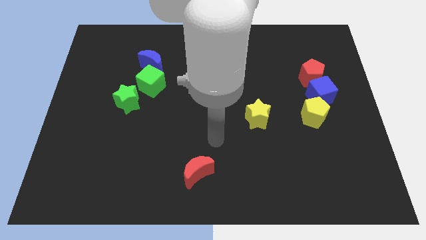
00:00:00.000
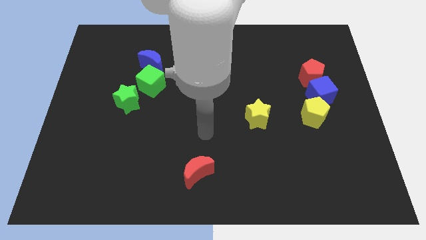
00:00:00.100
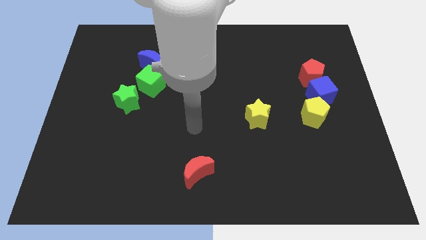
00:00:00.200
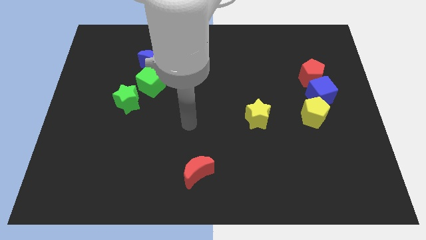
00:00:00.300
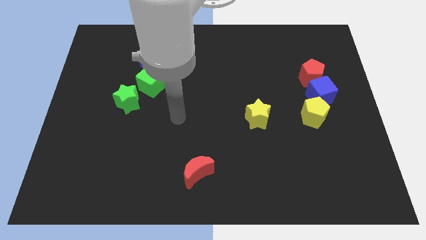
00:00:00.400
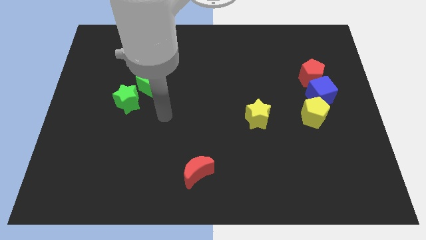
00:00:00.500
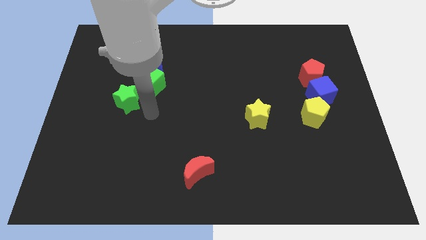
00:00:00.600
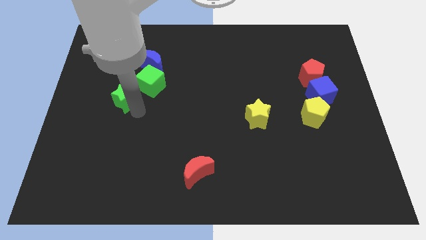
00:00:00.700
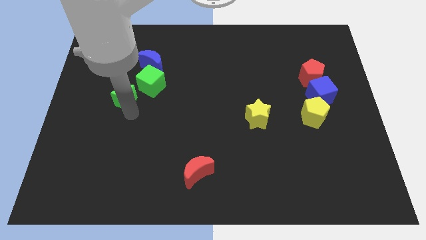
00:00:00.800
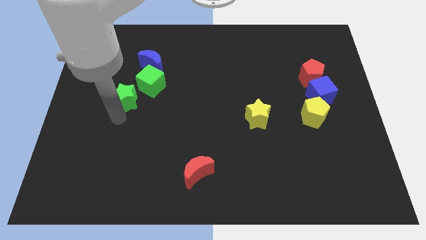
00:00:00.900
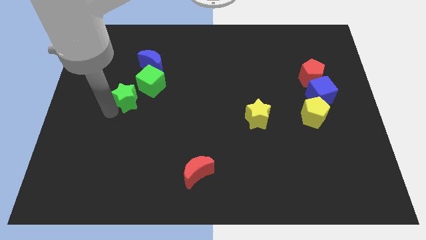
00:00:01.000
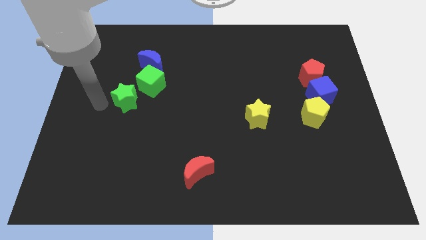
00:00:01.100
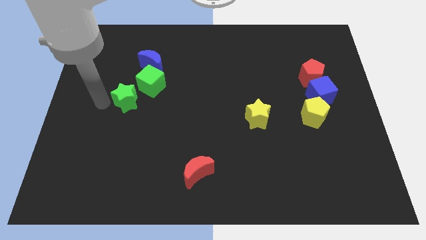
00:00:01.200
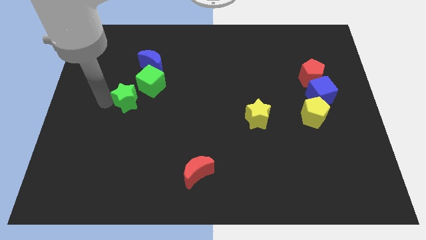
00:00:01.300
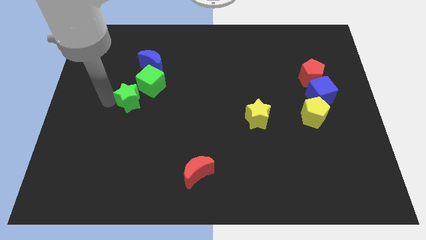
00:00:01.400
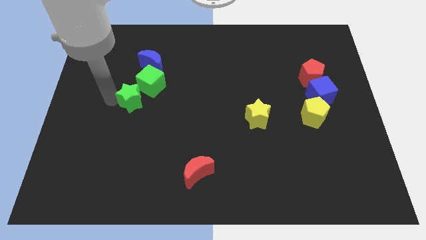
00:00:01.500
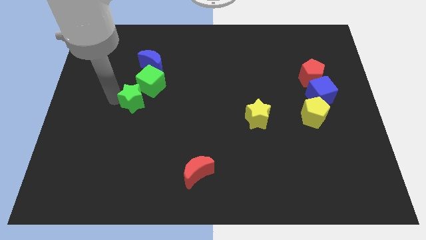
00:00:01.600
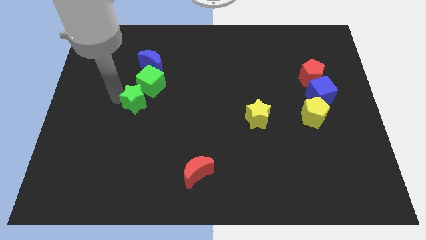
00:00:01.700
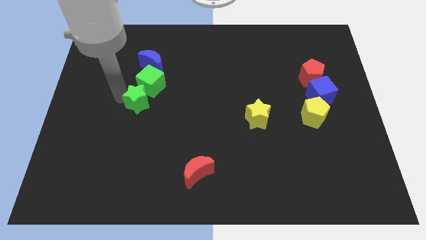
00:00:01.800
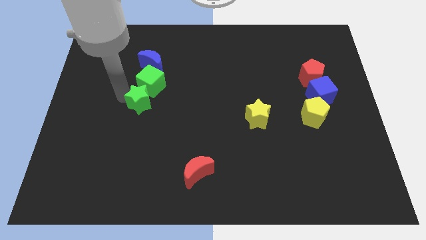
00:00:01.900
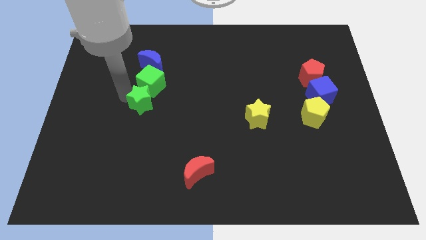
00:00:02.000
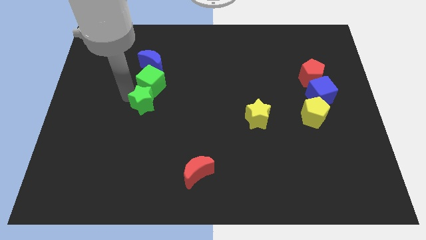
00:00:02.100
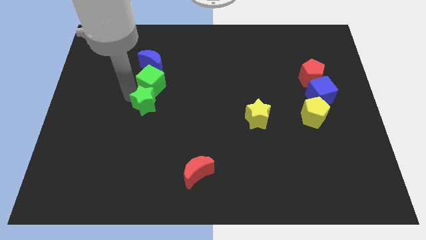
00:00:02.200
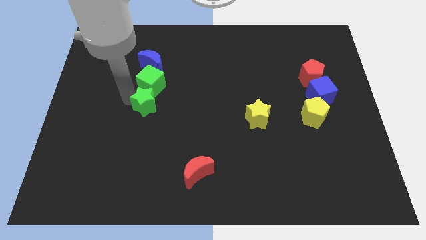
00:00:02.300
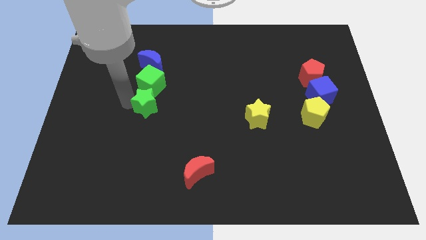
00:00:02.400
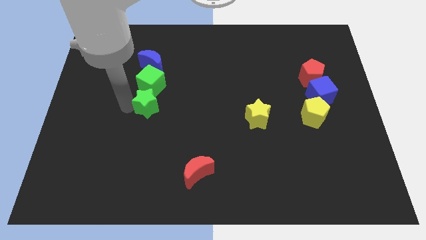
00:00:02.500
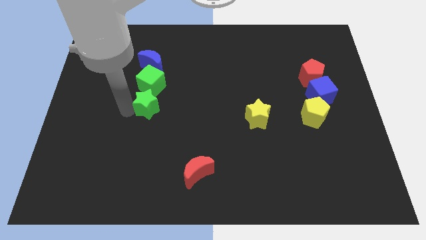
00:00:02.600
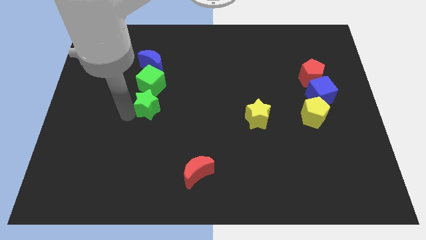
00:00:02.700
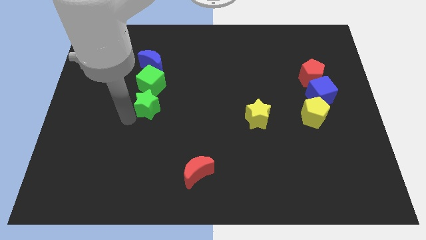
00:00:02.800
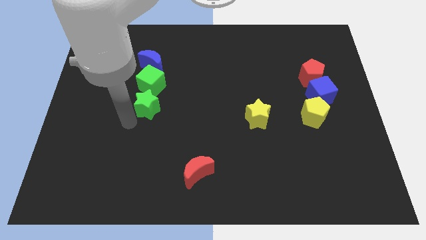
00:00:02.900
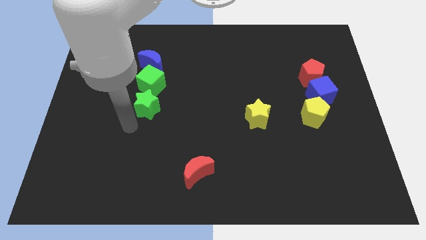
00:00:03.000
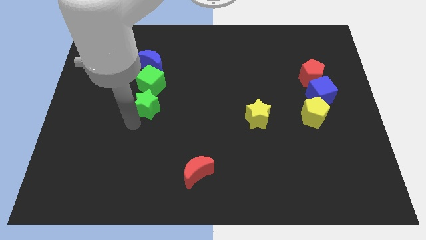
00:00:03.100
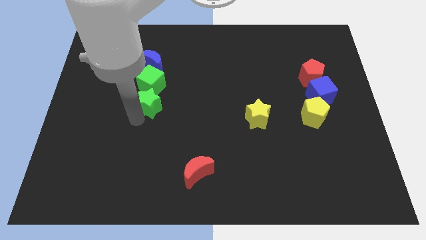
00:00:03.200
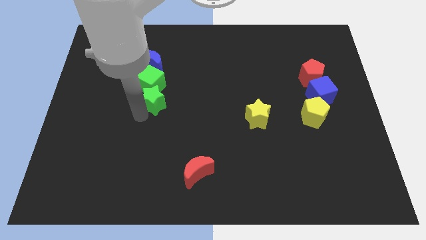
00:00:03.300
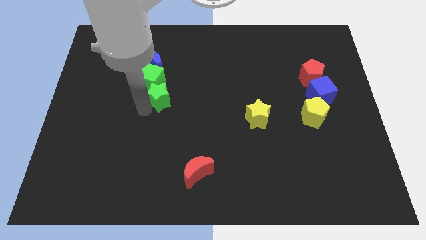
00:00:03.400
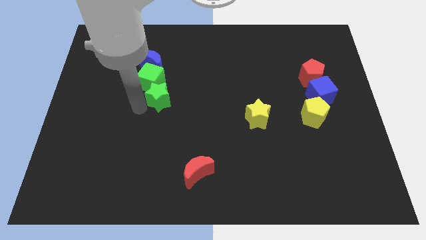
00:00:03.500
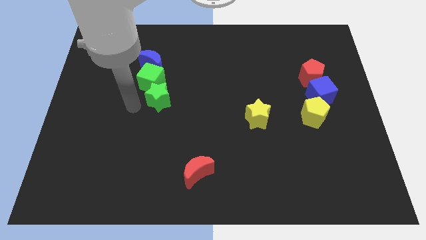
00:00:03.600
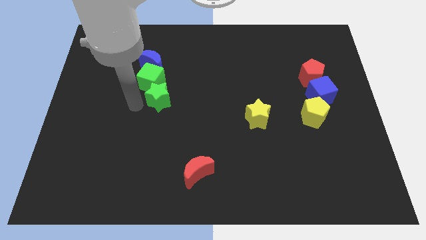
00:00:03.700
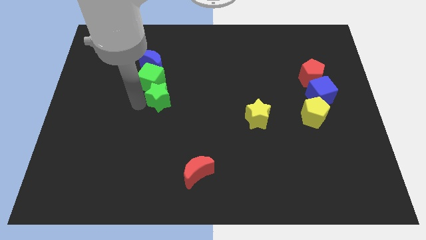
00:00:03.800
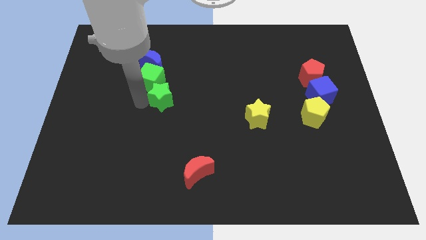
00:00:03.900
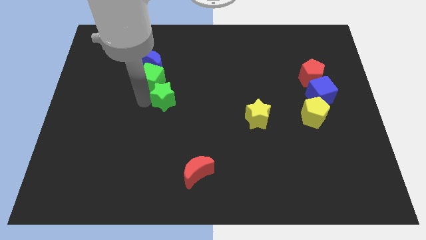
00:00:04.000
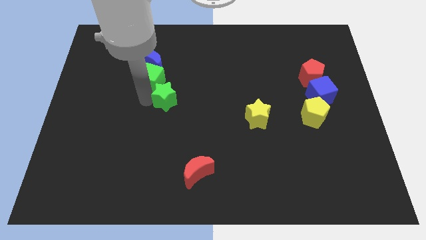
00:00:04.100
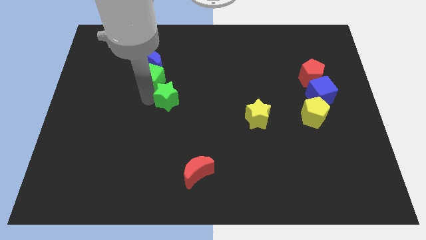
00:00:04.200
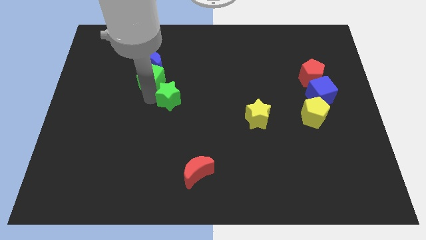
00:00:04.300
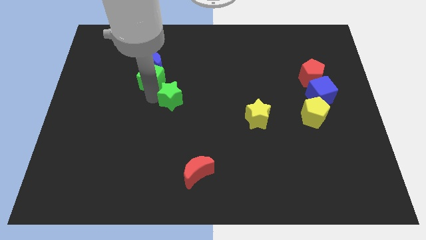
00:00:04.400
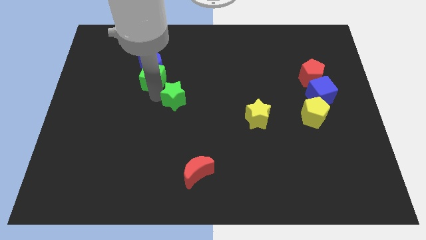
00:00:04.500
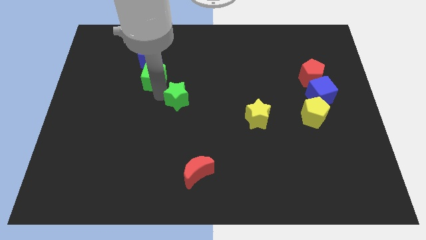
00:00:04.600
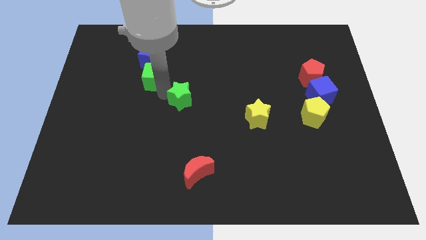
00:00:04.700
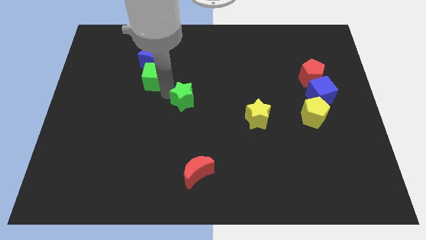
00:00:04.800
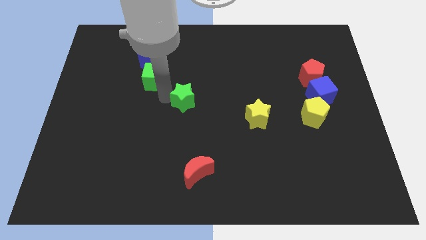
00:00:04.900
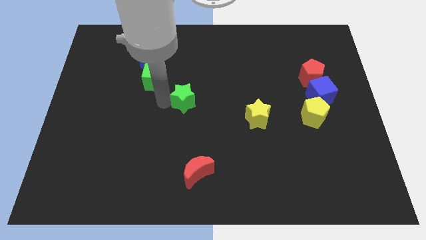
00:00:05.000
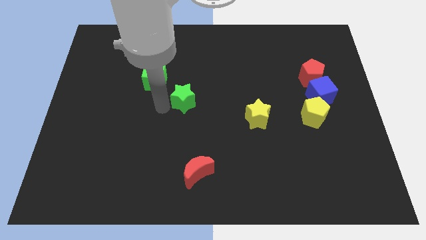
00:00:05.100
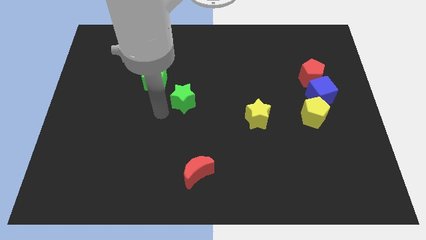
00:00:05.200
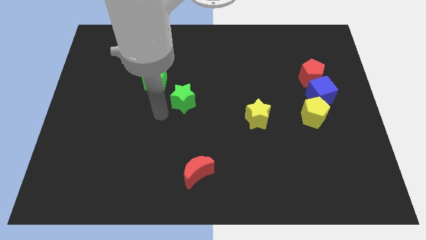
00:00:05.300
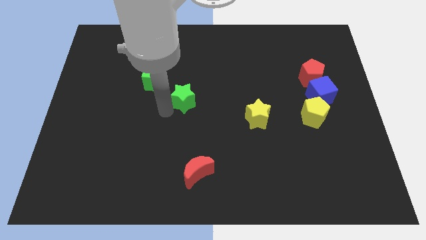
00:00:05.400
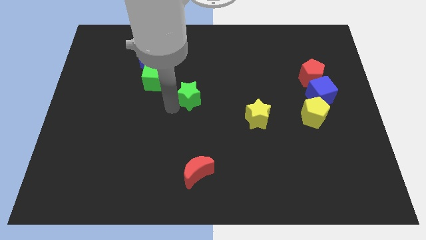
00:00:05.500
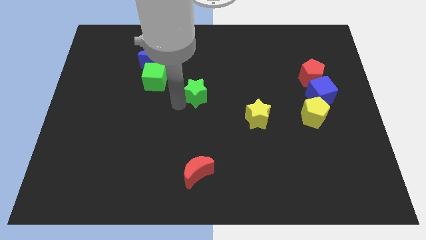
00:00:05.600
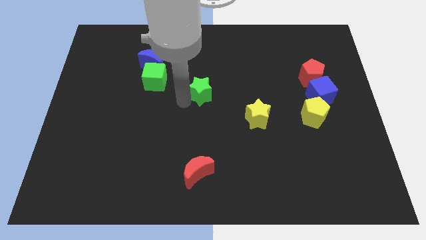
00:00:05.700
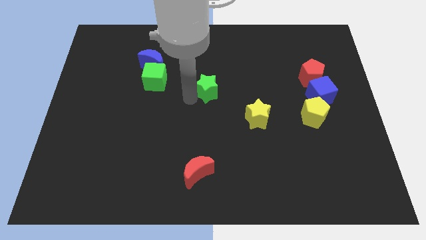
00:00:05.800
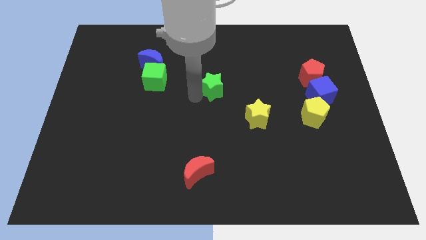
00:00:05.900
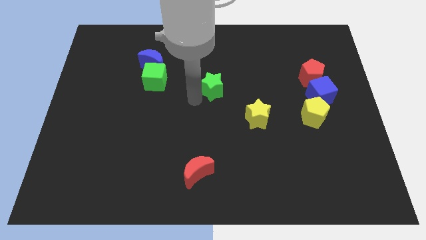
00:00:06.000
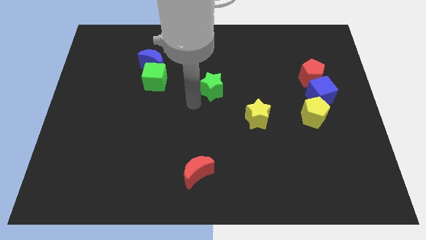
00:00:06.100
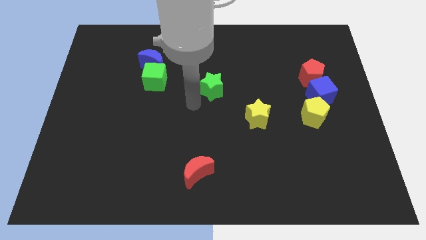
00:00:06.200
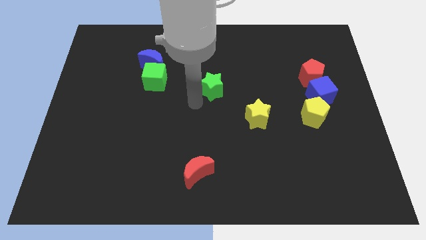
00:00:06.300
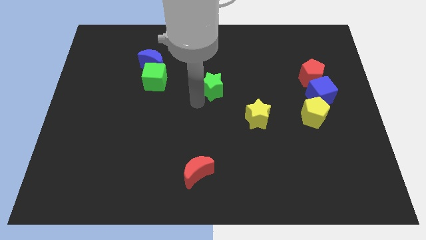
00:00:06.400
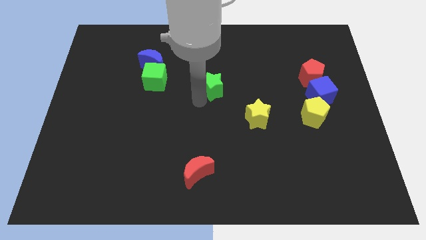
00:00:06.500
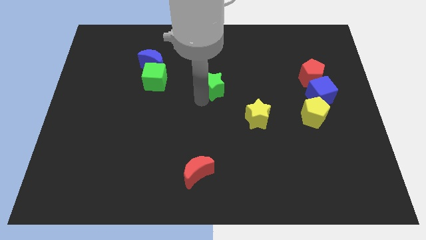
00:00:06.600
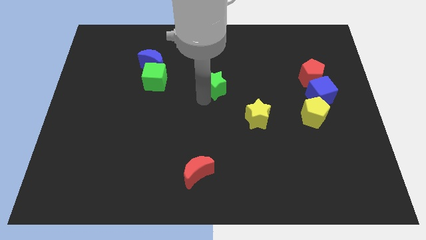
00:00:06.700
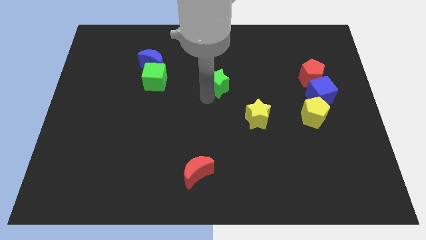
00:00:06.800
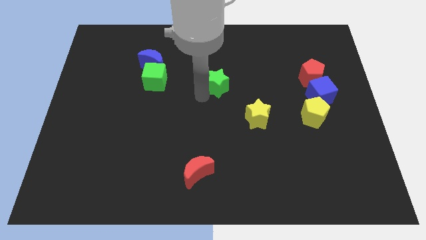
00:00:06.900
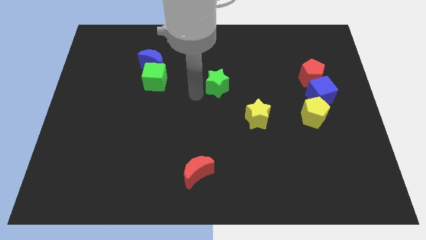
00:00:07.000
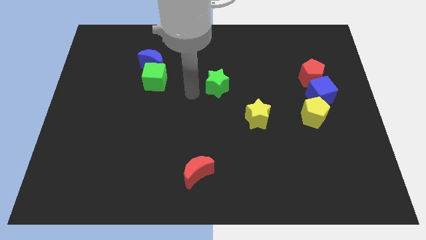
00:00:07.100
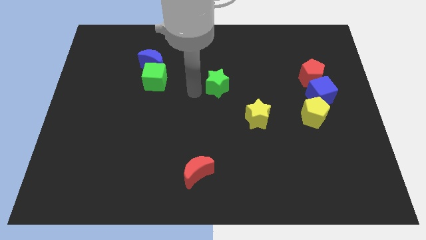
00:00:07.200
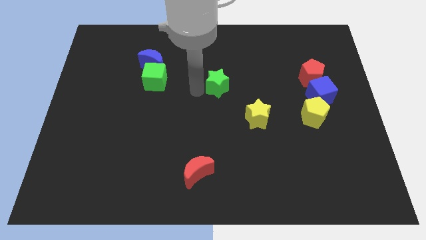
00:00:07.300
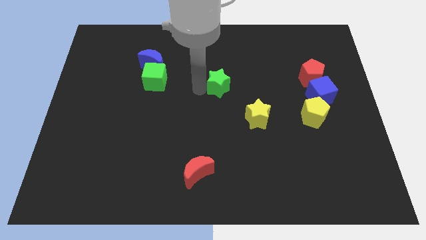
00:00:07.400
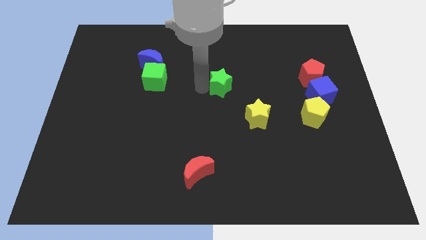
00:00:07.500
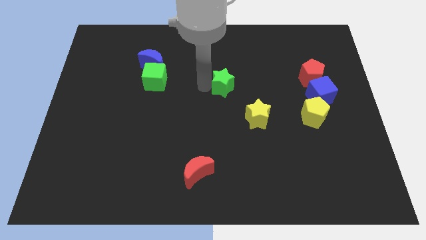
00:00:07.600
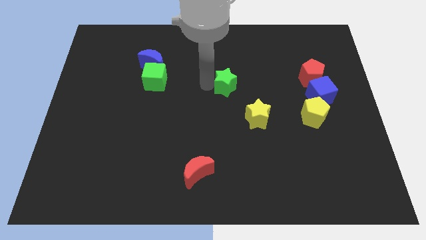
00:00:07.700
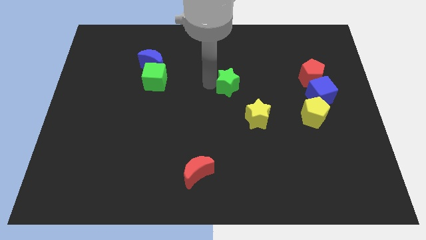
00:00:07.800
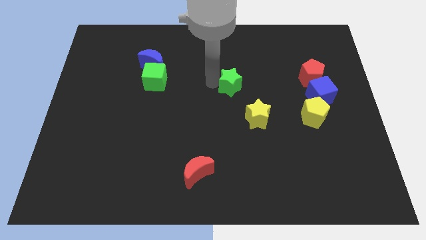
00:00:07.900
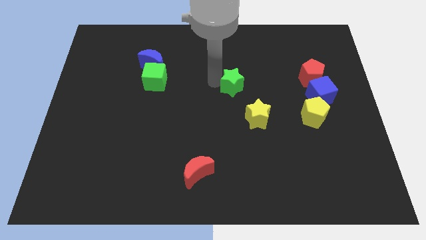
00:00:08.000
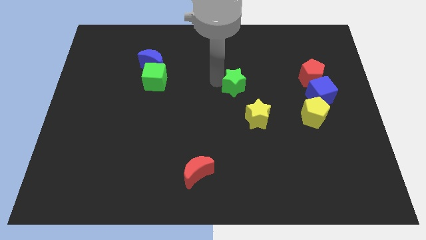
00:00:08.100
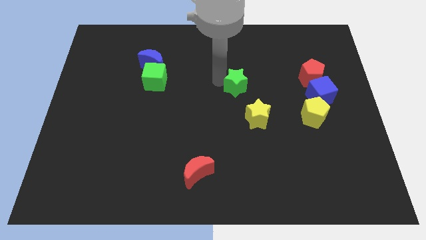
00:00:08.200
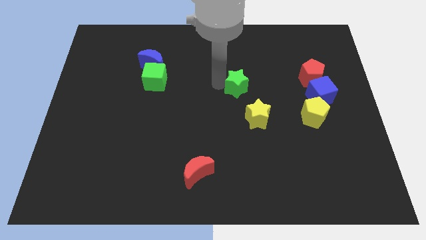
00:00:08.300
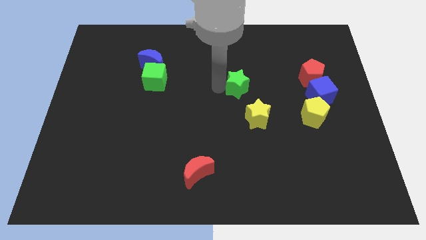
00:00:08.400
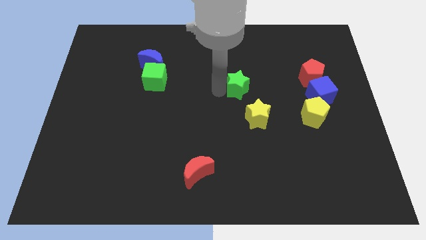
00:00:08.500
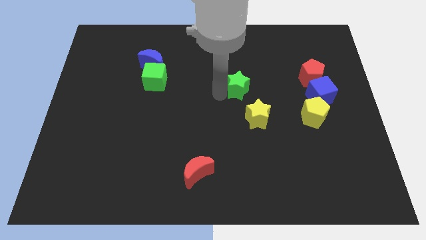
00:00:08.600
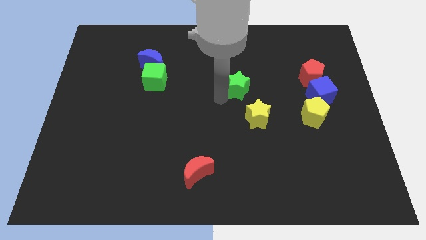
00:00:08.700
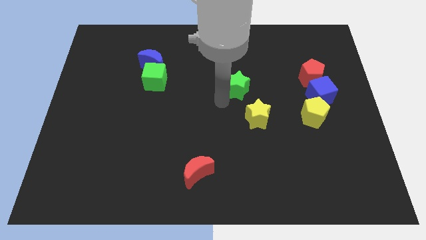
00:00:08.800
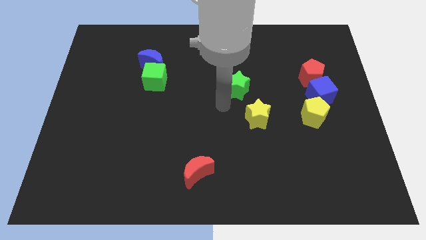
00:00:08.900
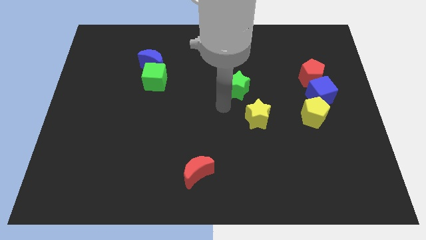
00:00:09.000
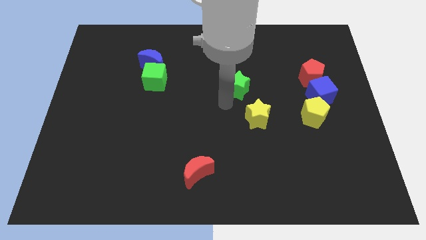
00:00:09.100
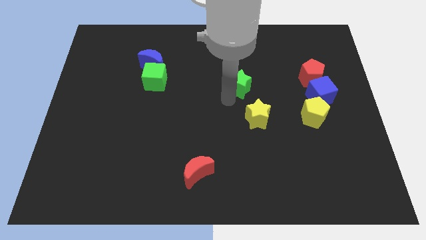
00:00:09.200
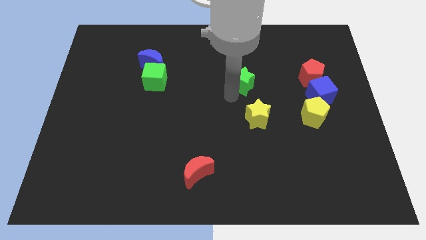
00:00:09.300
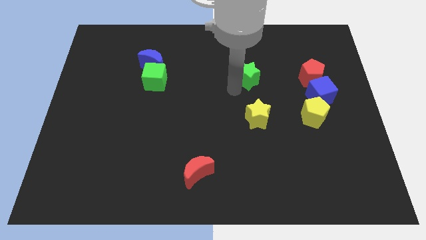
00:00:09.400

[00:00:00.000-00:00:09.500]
slide the green star just left of the red pentagon
